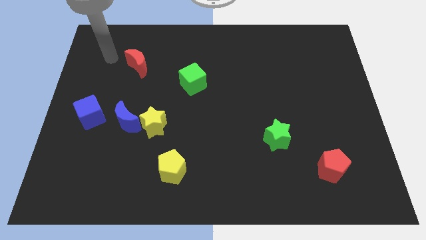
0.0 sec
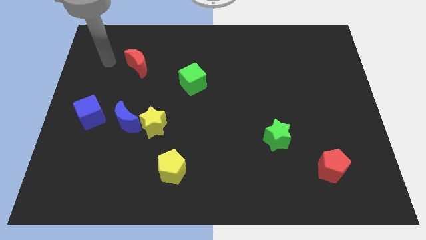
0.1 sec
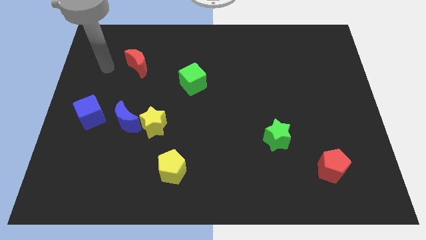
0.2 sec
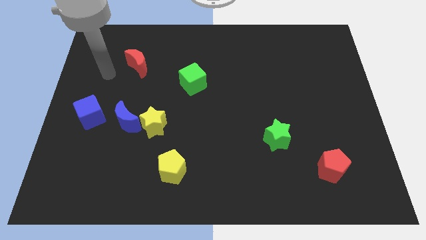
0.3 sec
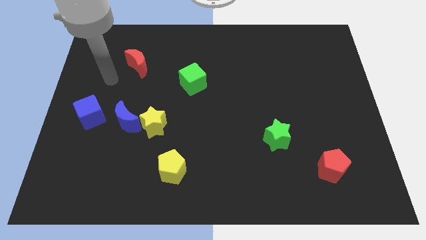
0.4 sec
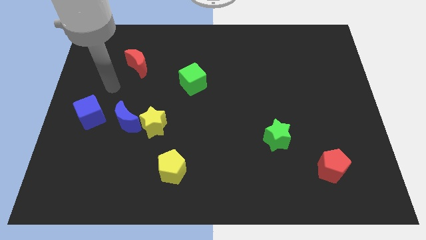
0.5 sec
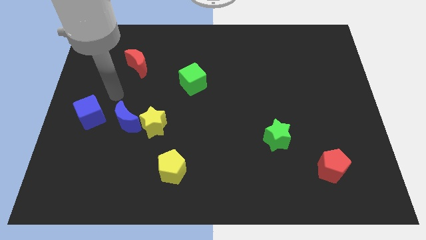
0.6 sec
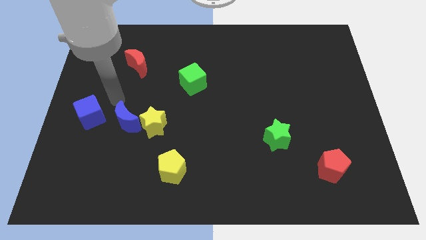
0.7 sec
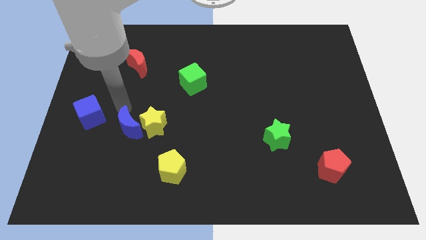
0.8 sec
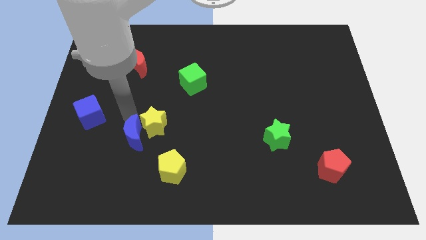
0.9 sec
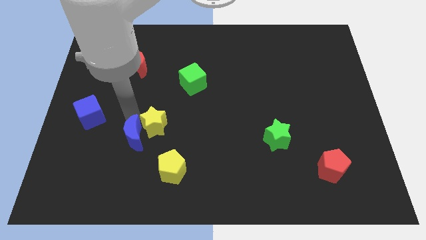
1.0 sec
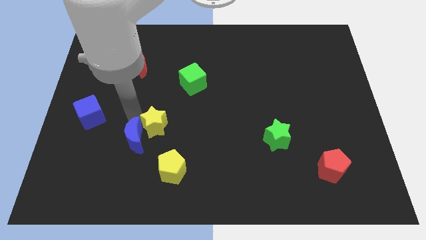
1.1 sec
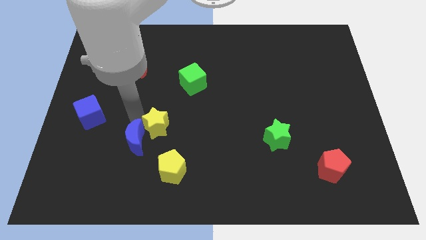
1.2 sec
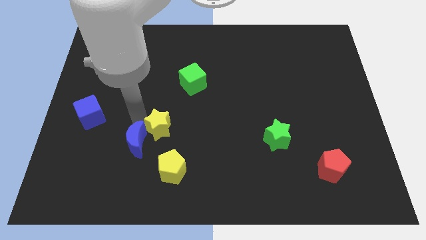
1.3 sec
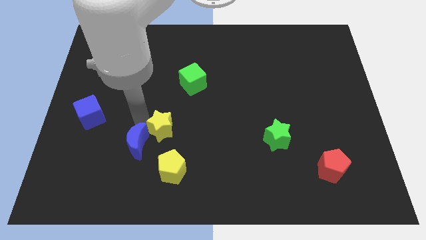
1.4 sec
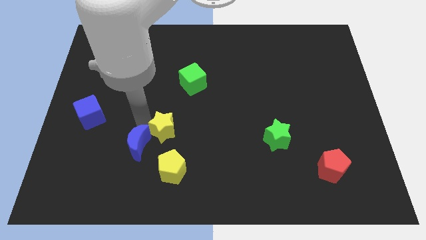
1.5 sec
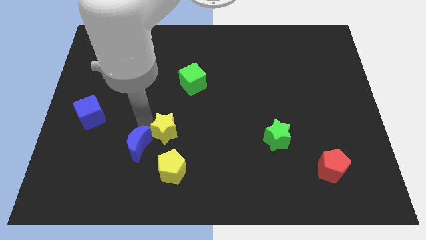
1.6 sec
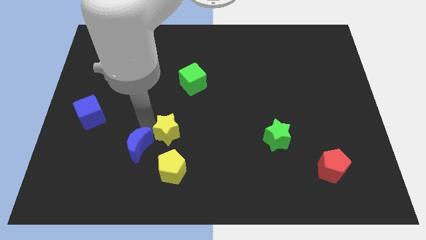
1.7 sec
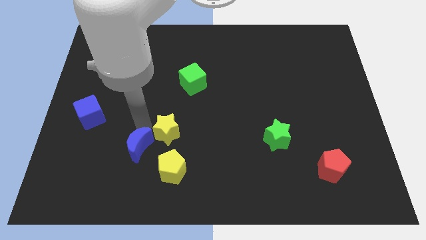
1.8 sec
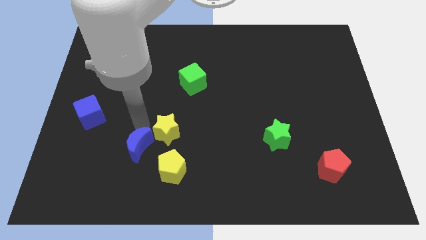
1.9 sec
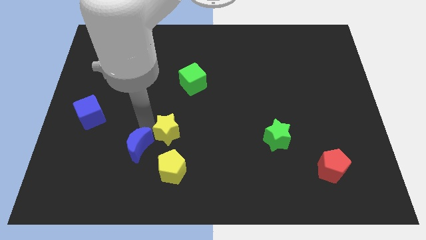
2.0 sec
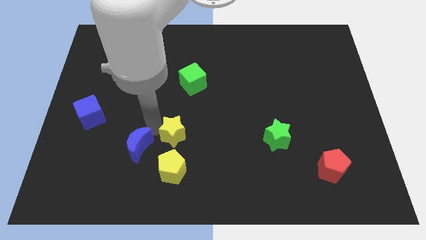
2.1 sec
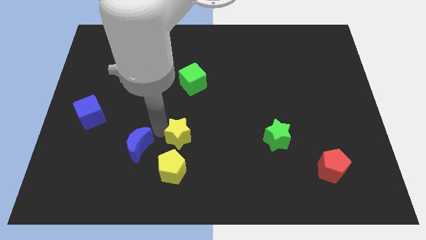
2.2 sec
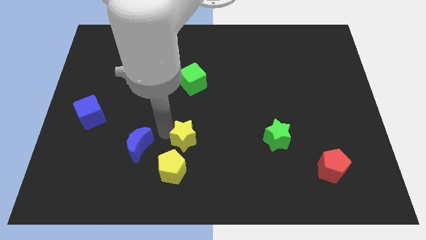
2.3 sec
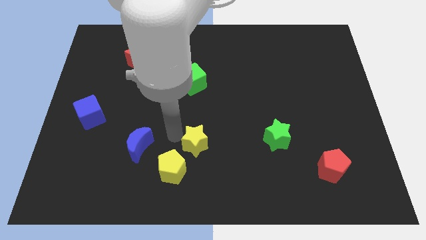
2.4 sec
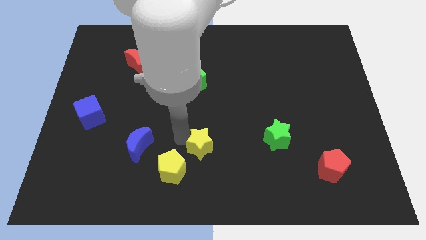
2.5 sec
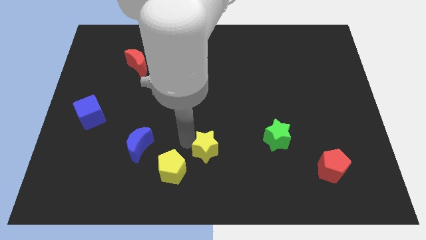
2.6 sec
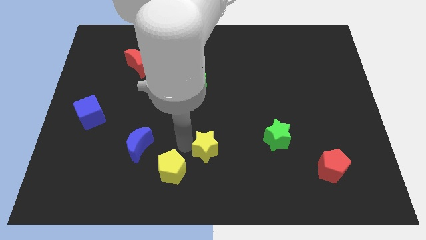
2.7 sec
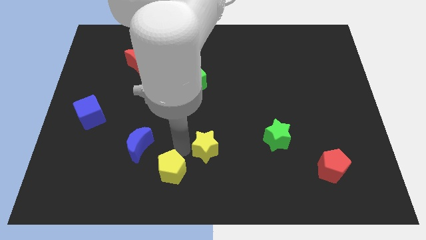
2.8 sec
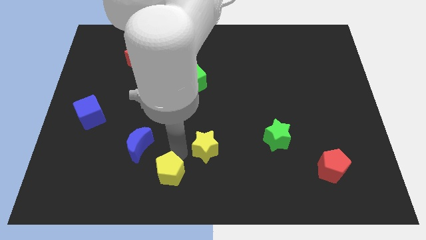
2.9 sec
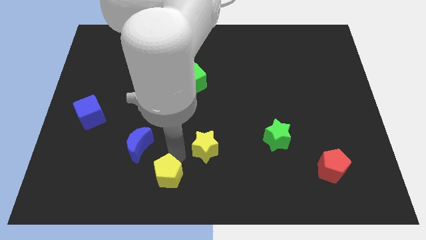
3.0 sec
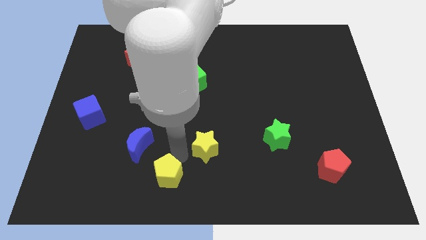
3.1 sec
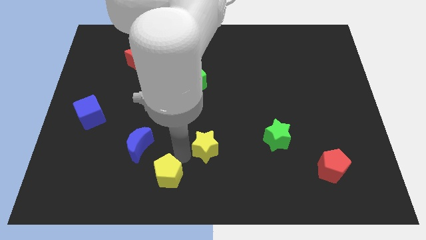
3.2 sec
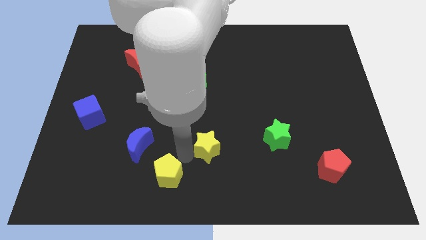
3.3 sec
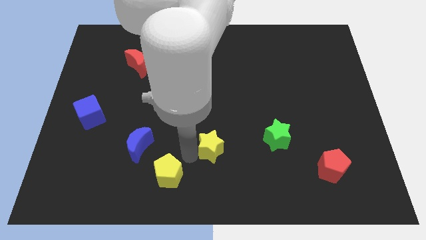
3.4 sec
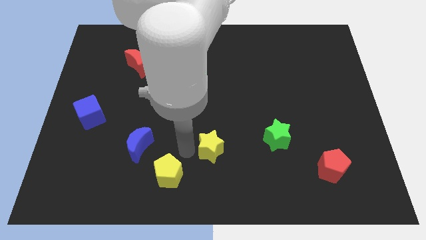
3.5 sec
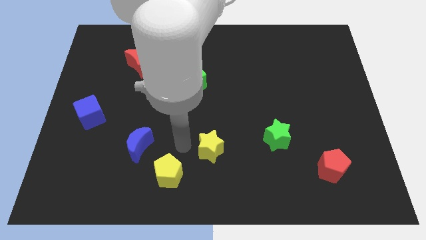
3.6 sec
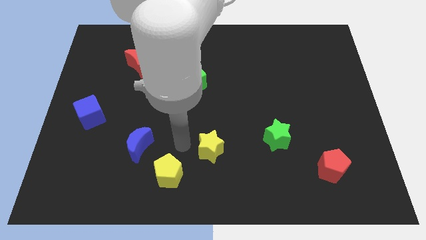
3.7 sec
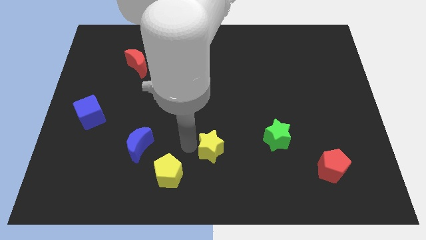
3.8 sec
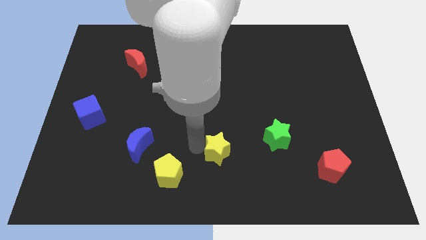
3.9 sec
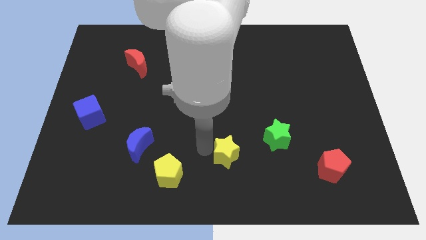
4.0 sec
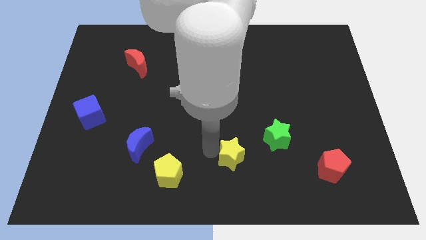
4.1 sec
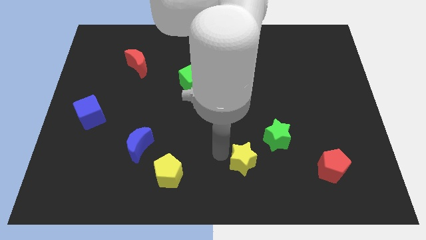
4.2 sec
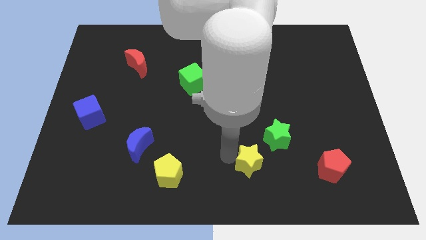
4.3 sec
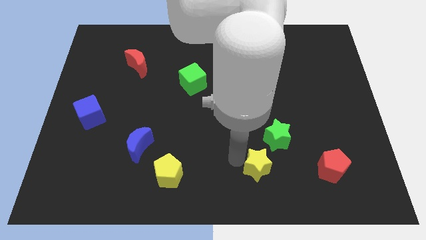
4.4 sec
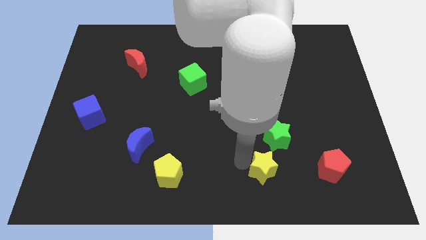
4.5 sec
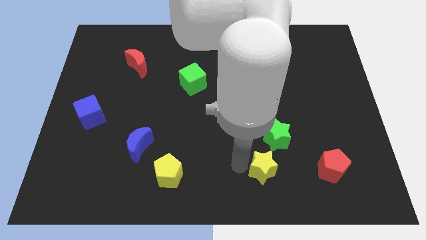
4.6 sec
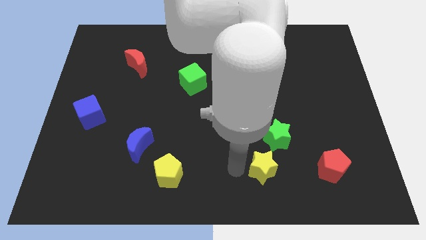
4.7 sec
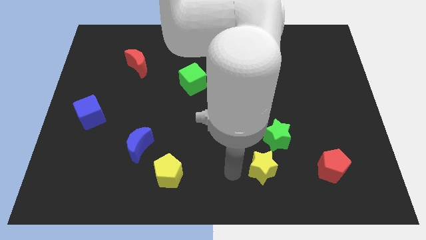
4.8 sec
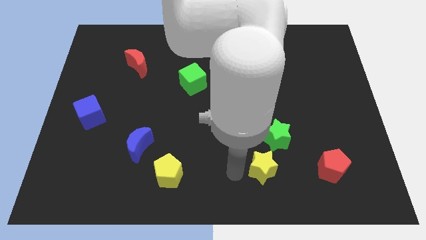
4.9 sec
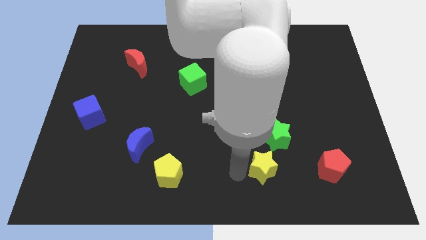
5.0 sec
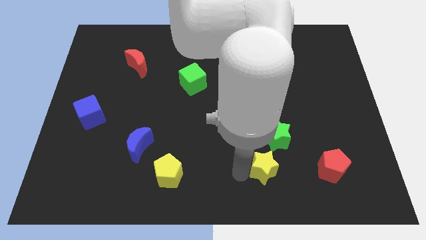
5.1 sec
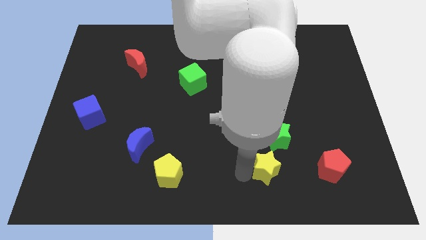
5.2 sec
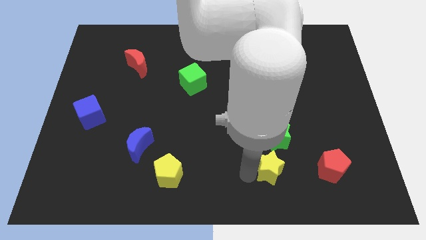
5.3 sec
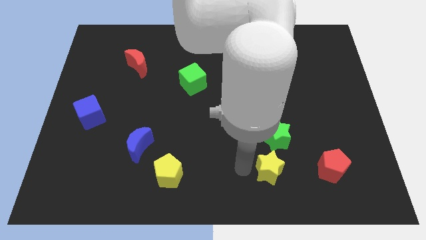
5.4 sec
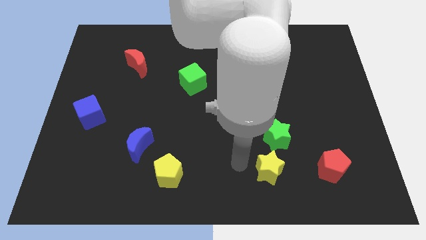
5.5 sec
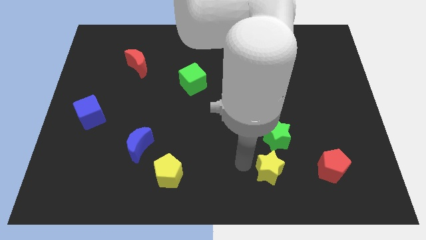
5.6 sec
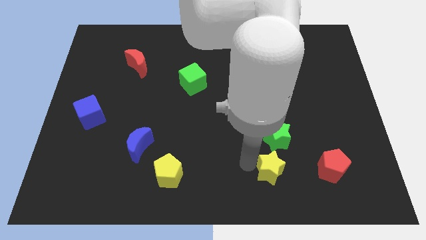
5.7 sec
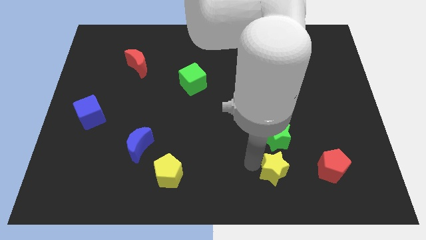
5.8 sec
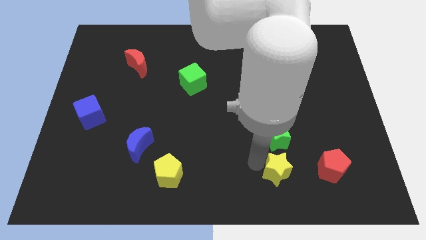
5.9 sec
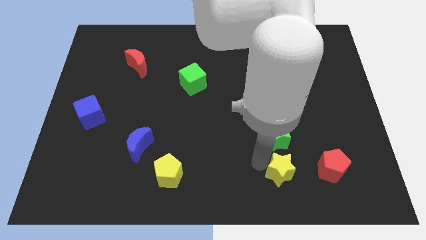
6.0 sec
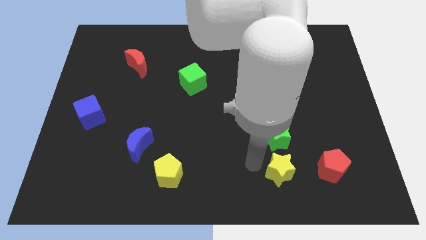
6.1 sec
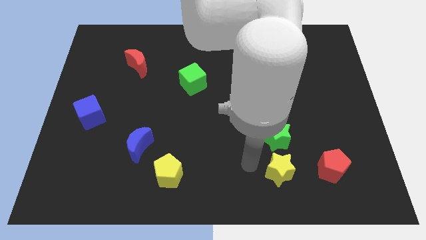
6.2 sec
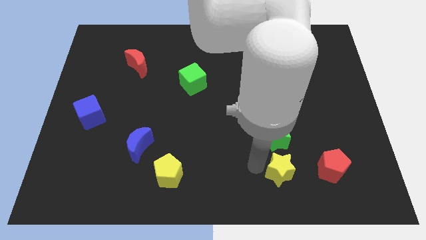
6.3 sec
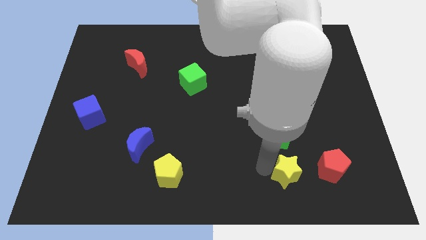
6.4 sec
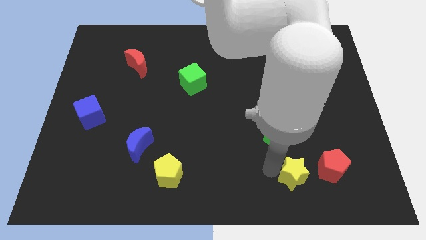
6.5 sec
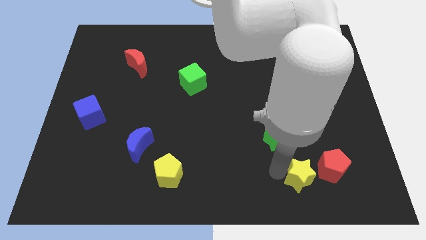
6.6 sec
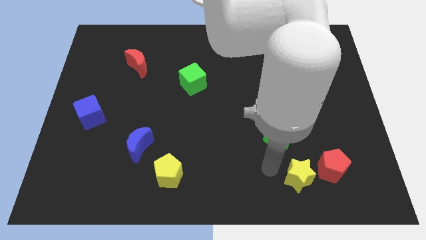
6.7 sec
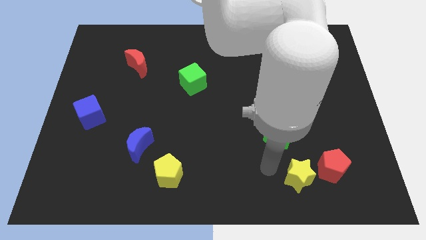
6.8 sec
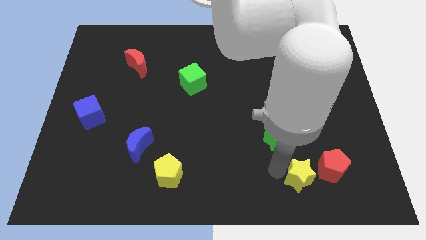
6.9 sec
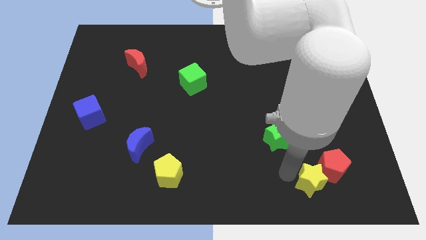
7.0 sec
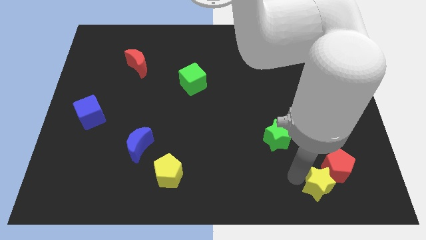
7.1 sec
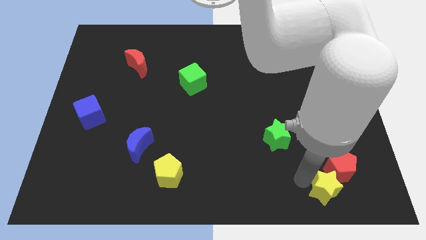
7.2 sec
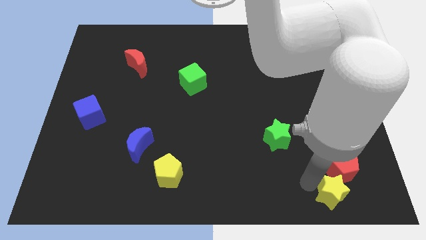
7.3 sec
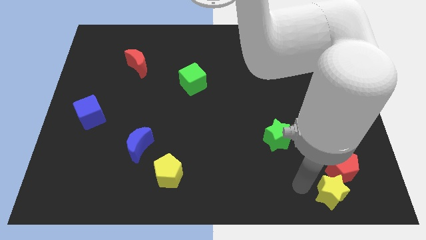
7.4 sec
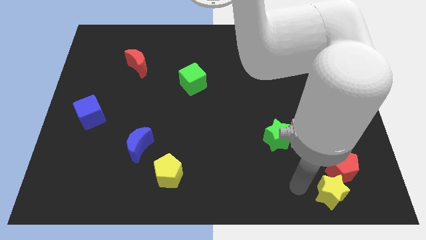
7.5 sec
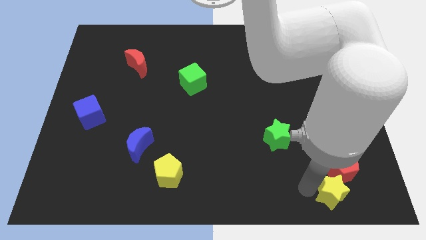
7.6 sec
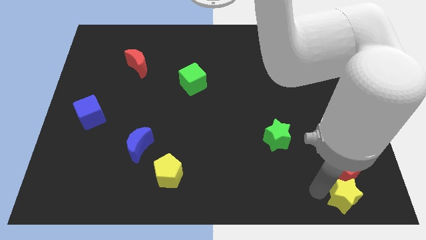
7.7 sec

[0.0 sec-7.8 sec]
move the yellow star to the bottom right
